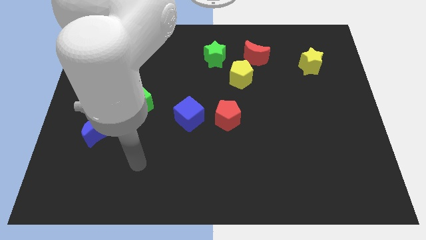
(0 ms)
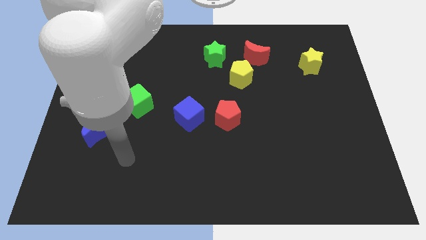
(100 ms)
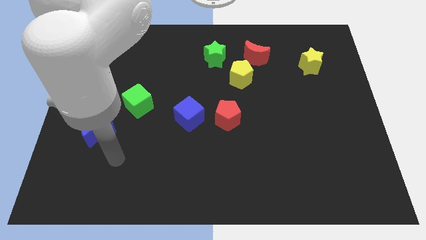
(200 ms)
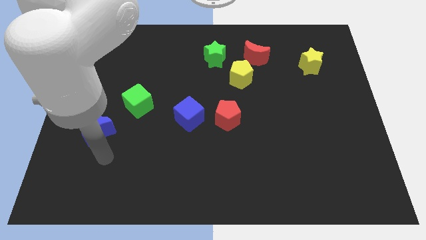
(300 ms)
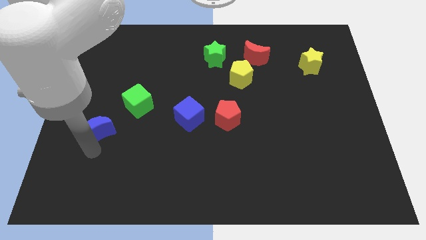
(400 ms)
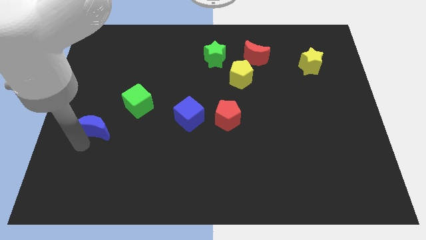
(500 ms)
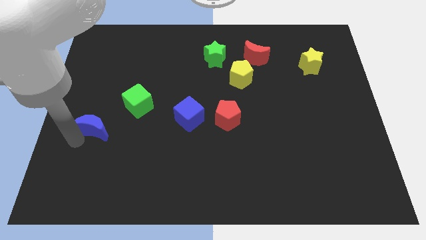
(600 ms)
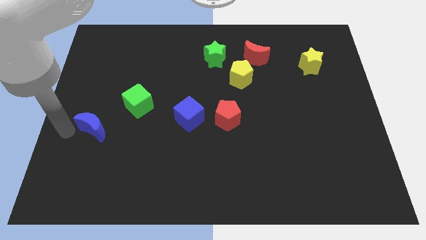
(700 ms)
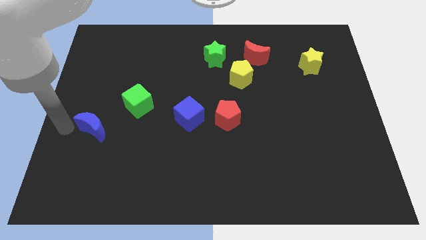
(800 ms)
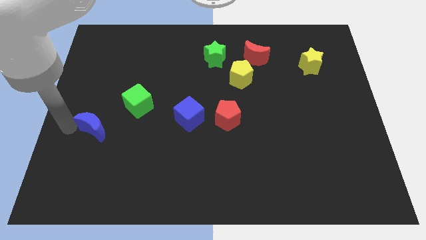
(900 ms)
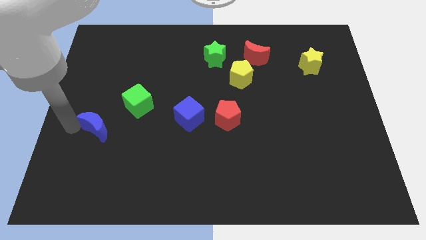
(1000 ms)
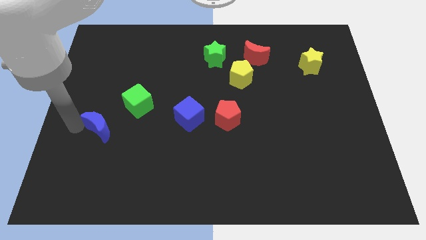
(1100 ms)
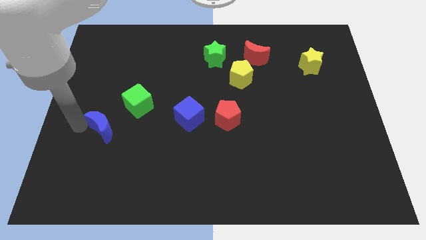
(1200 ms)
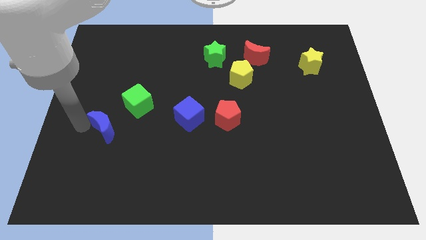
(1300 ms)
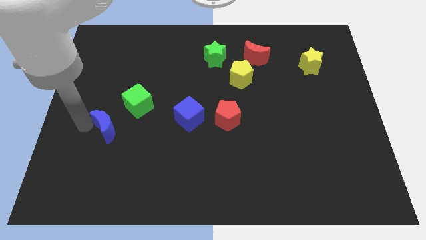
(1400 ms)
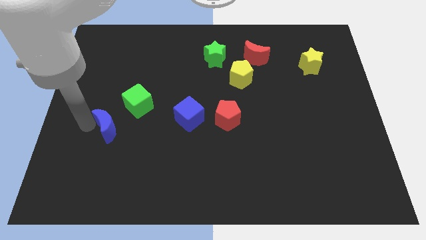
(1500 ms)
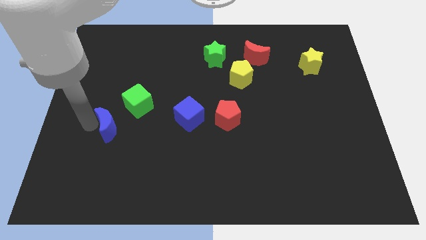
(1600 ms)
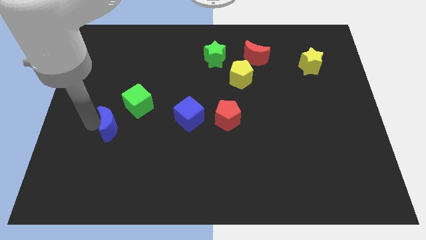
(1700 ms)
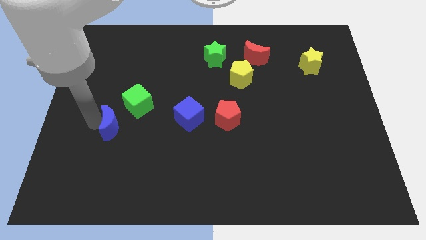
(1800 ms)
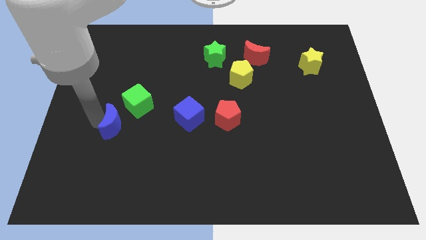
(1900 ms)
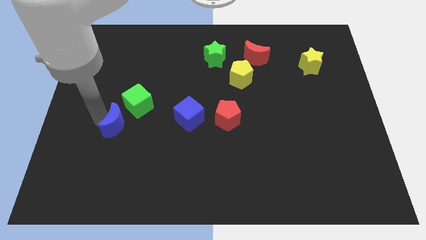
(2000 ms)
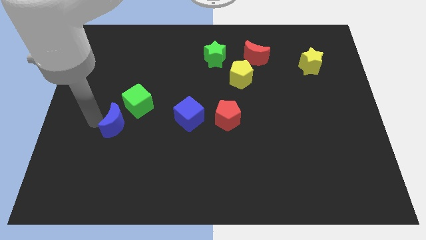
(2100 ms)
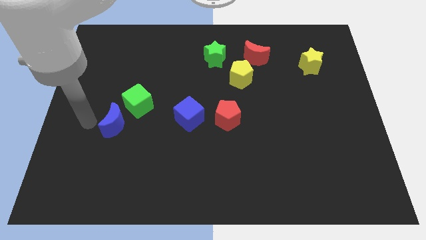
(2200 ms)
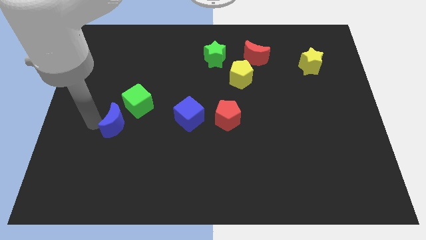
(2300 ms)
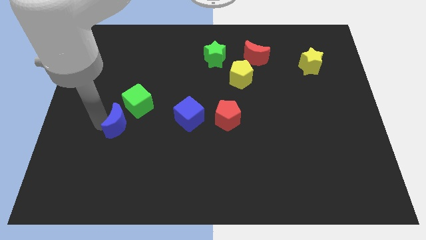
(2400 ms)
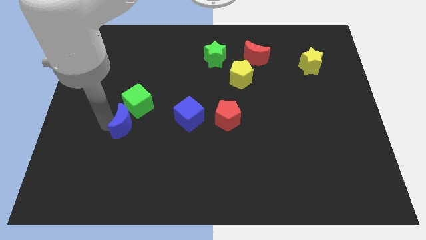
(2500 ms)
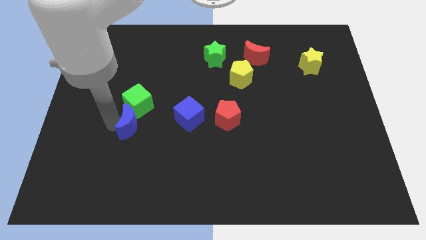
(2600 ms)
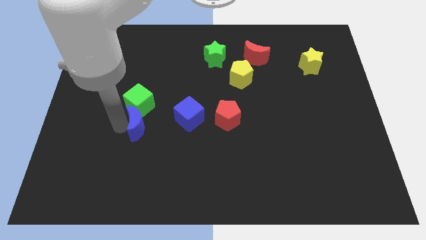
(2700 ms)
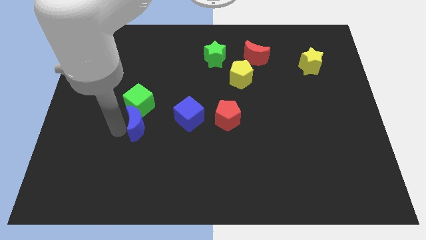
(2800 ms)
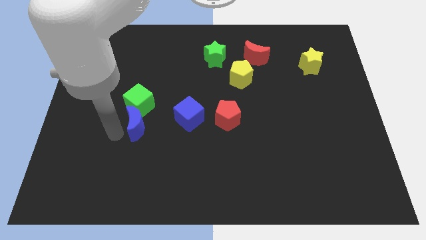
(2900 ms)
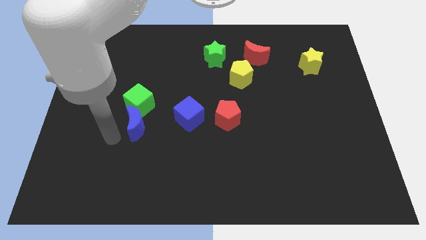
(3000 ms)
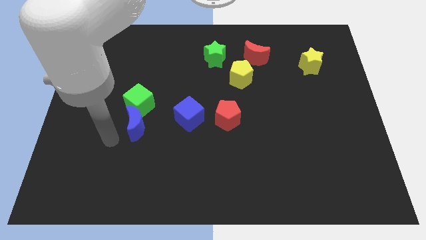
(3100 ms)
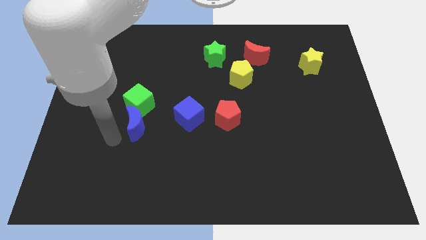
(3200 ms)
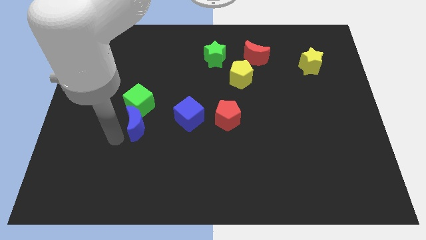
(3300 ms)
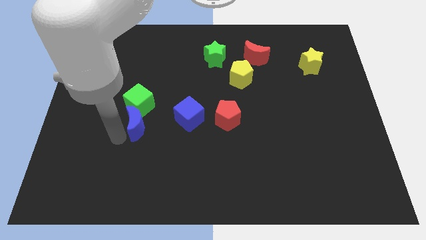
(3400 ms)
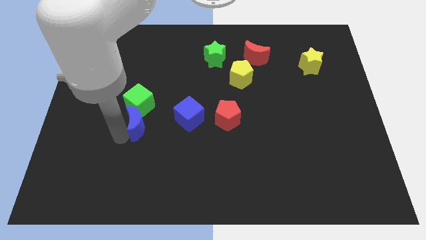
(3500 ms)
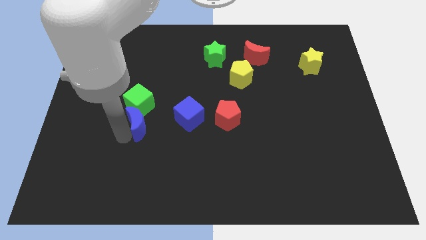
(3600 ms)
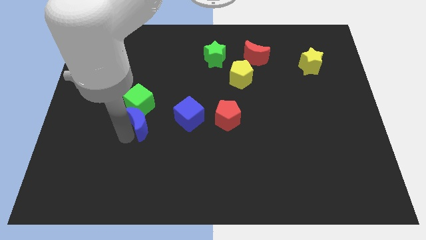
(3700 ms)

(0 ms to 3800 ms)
push the blue moon diagonally upwards and to the right somewhat

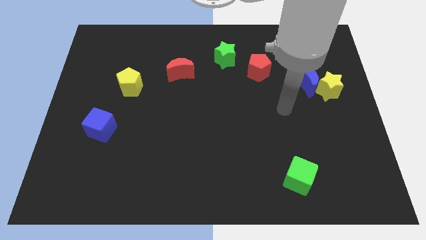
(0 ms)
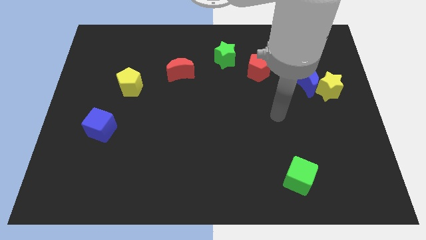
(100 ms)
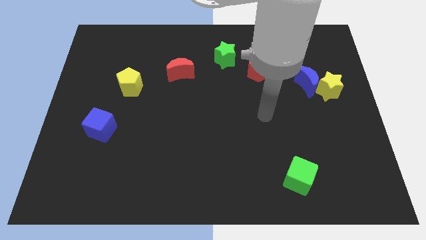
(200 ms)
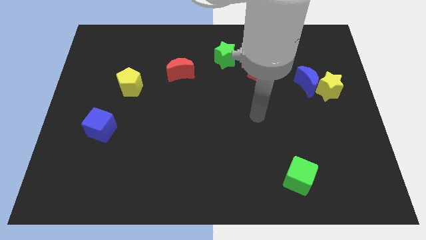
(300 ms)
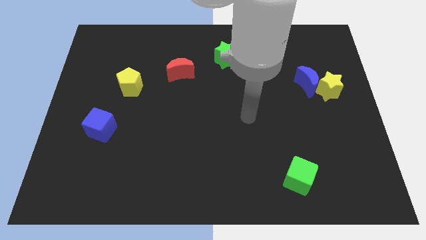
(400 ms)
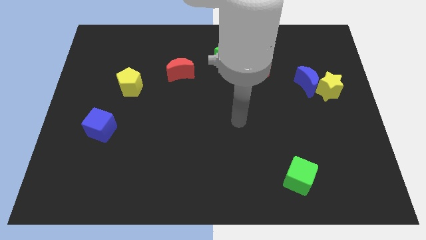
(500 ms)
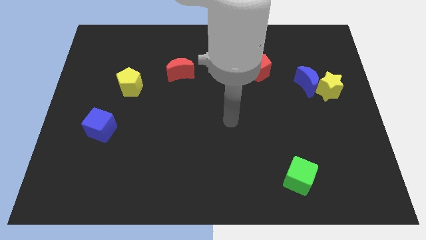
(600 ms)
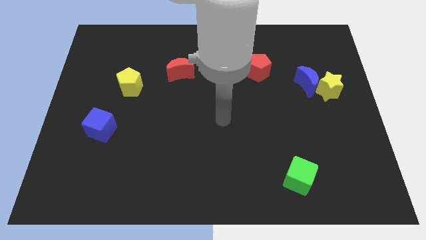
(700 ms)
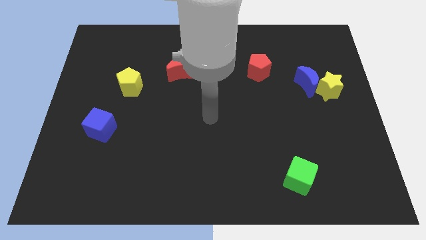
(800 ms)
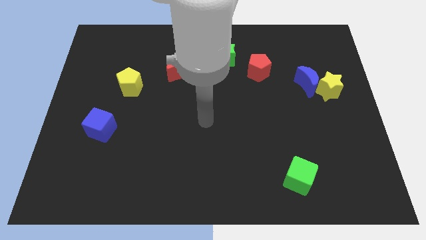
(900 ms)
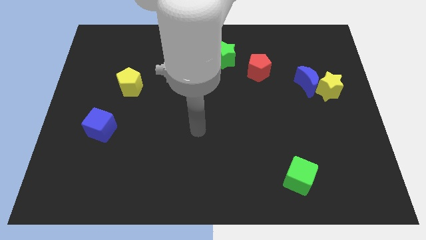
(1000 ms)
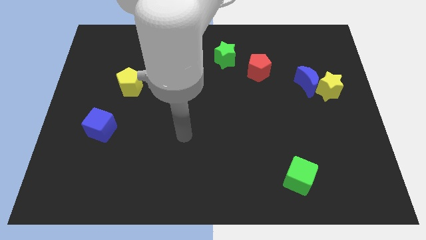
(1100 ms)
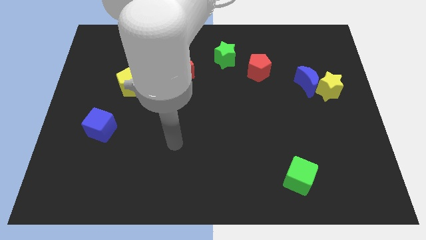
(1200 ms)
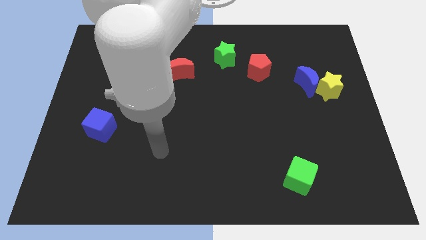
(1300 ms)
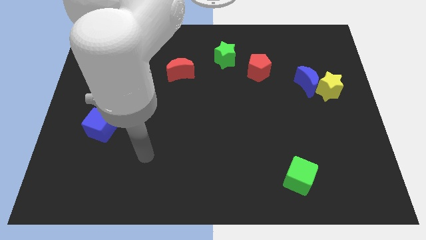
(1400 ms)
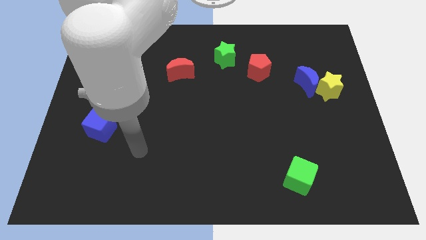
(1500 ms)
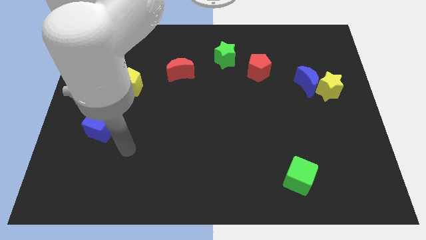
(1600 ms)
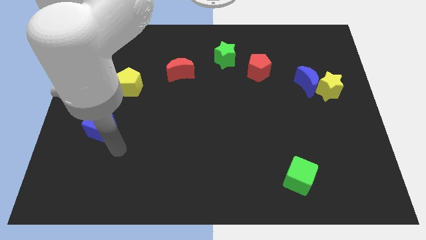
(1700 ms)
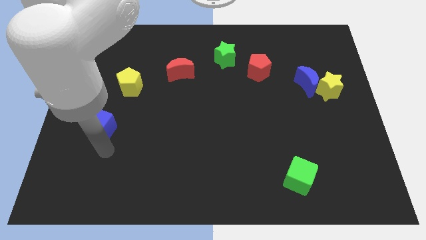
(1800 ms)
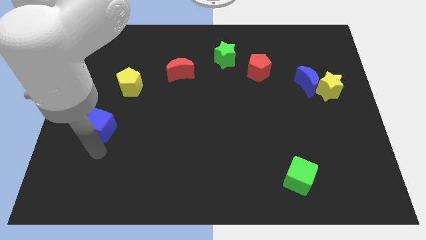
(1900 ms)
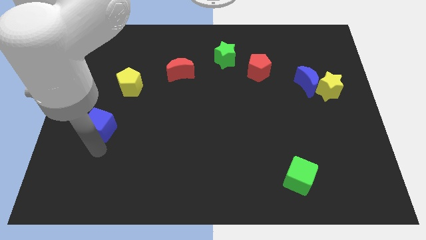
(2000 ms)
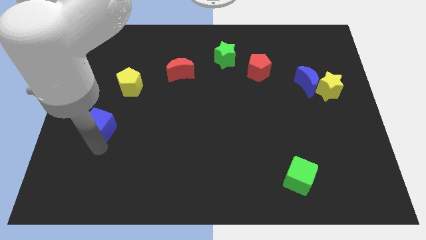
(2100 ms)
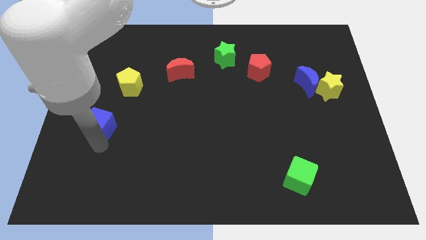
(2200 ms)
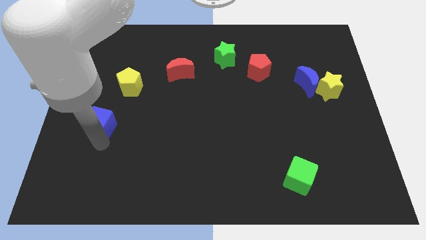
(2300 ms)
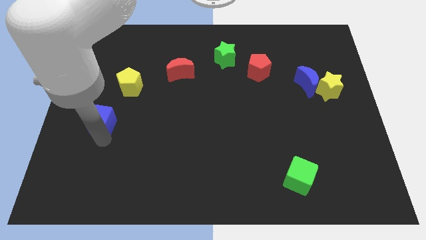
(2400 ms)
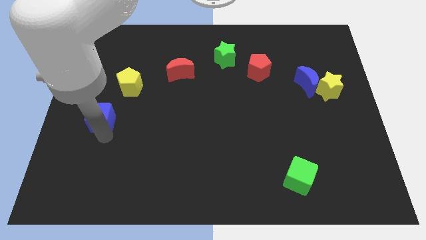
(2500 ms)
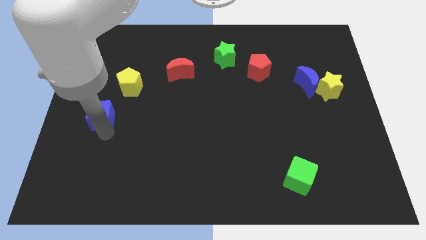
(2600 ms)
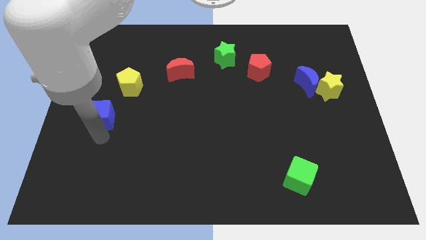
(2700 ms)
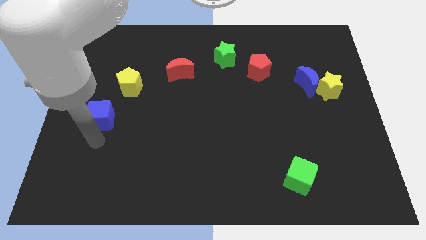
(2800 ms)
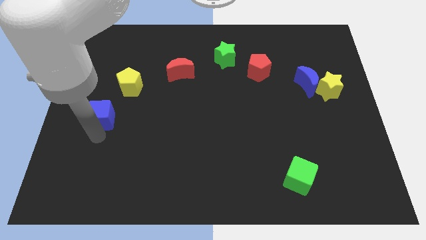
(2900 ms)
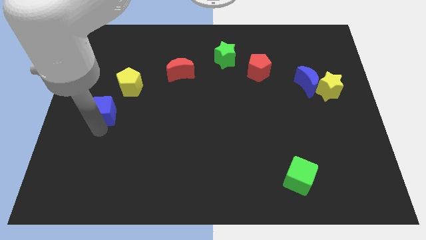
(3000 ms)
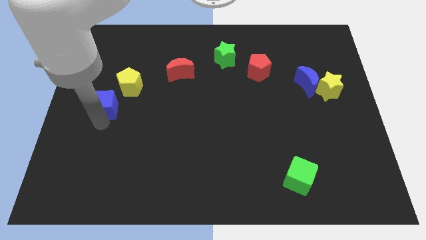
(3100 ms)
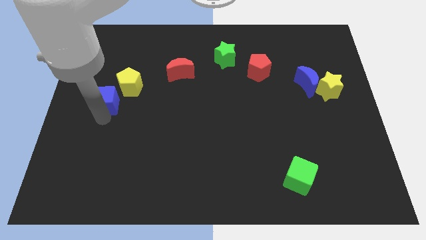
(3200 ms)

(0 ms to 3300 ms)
push the blue cube up somewhat

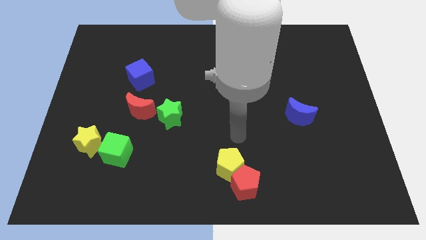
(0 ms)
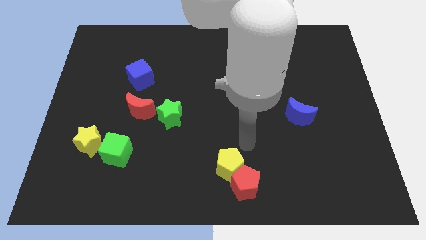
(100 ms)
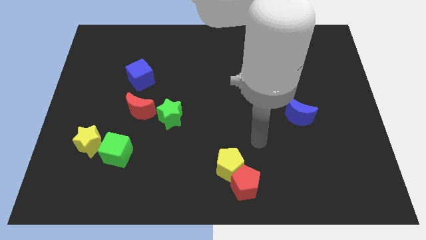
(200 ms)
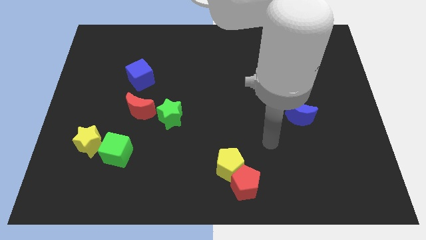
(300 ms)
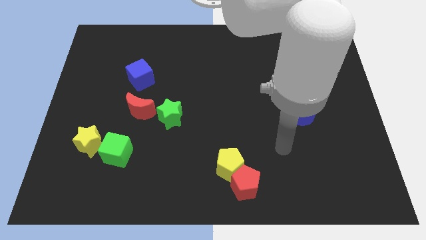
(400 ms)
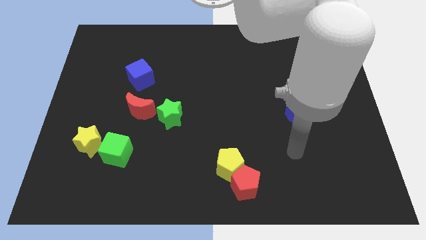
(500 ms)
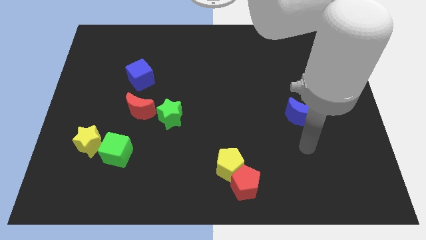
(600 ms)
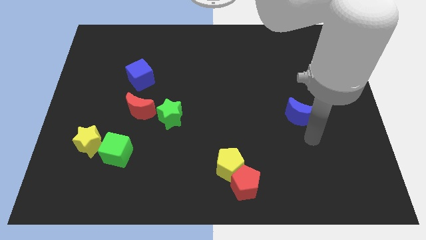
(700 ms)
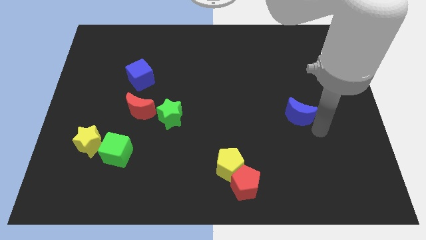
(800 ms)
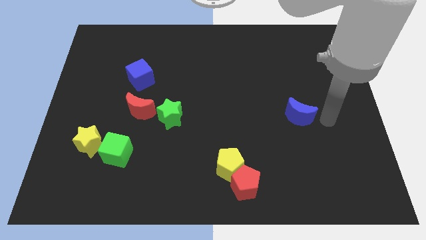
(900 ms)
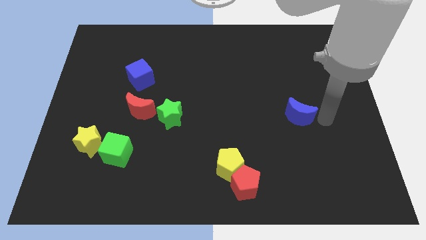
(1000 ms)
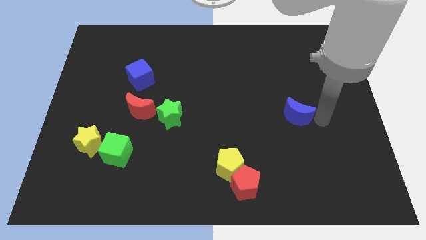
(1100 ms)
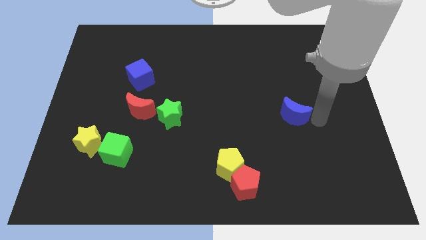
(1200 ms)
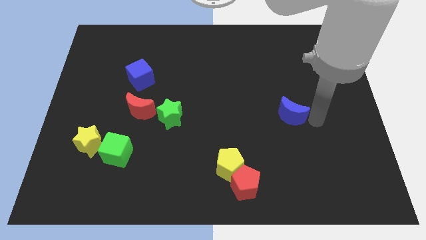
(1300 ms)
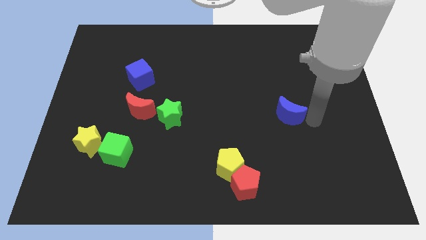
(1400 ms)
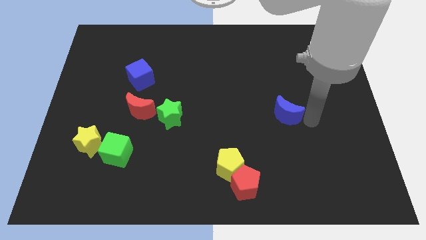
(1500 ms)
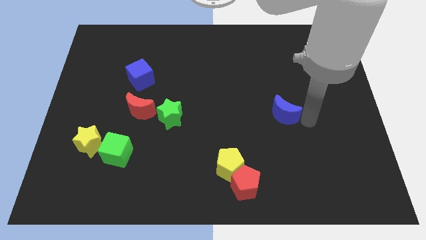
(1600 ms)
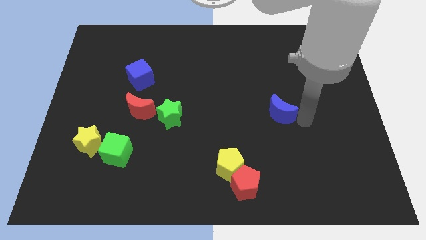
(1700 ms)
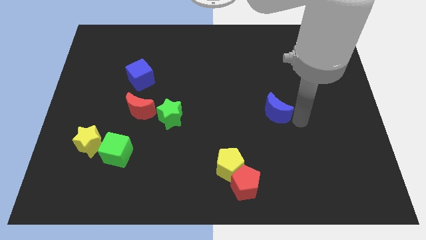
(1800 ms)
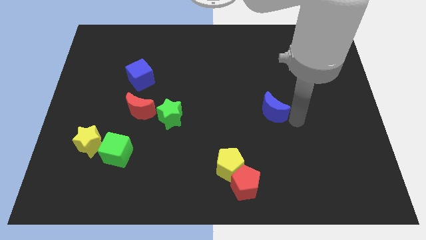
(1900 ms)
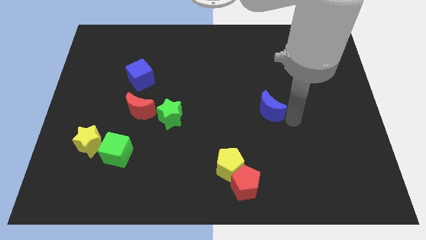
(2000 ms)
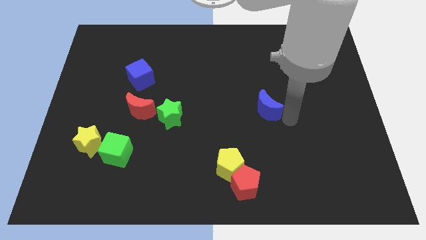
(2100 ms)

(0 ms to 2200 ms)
slightly move the blue moon to the left
